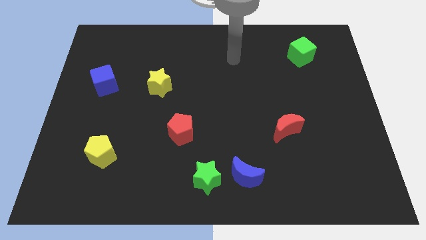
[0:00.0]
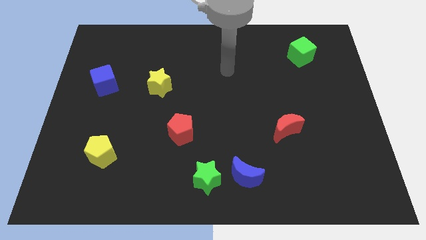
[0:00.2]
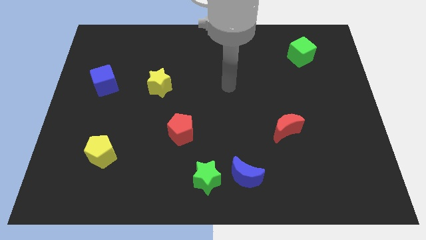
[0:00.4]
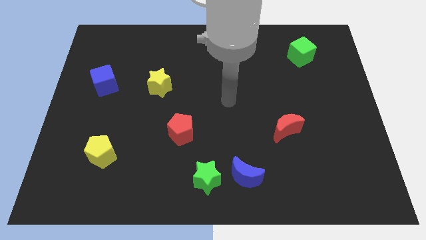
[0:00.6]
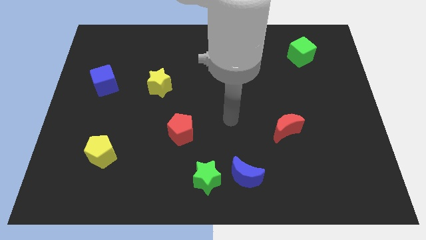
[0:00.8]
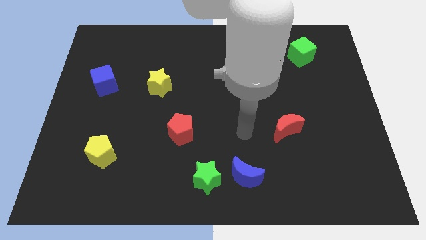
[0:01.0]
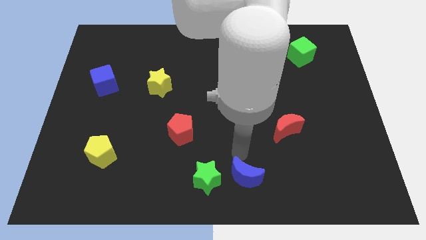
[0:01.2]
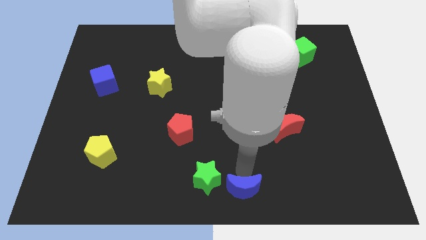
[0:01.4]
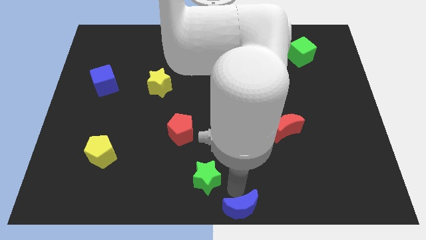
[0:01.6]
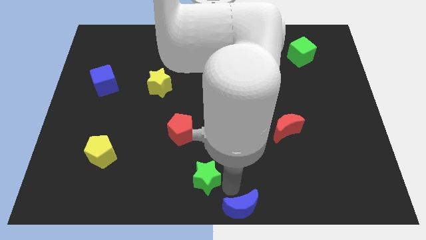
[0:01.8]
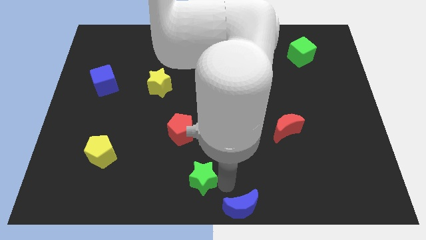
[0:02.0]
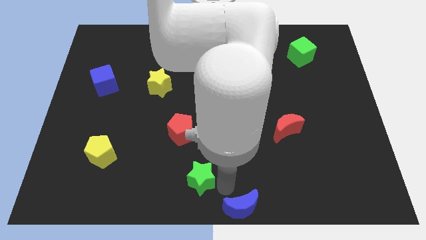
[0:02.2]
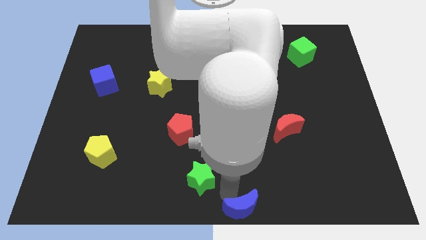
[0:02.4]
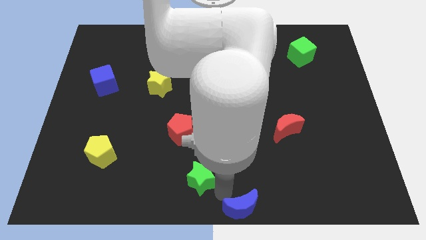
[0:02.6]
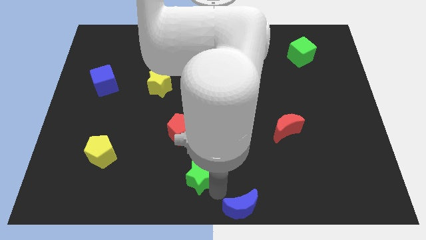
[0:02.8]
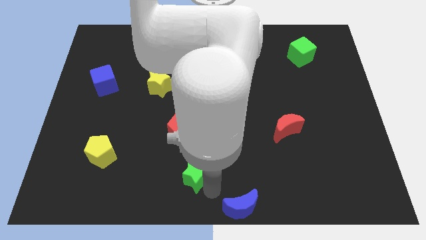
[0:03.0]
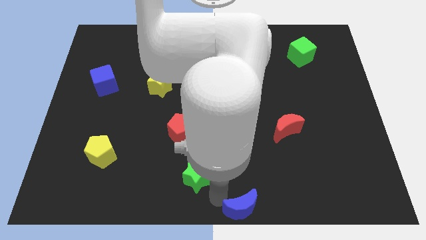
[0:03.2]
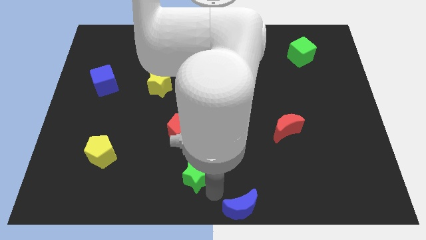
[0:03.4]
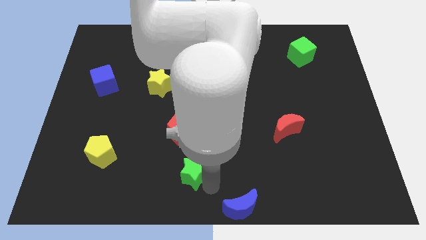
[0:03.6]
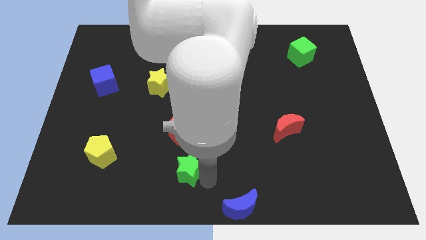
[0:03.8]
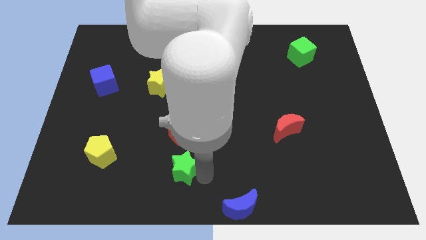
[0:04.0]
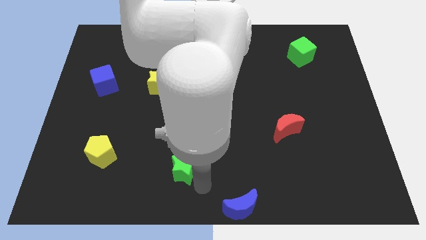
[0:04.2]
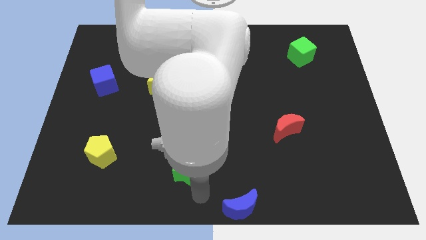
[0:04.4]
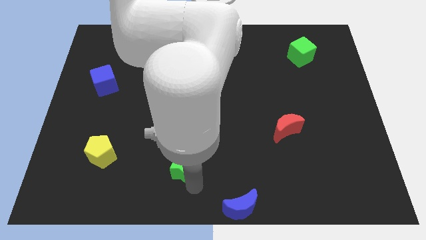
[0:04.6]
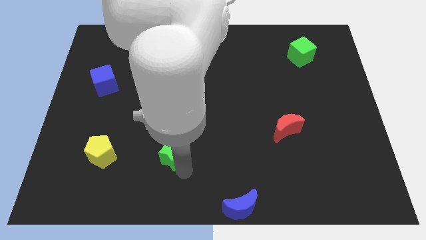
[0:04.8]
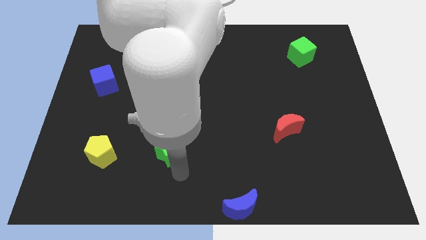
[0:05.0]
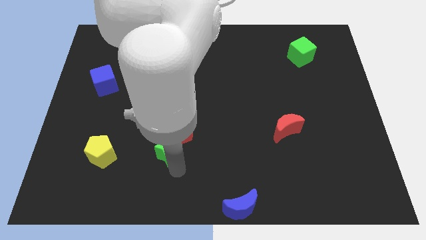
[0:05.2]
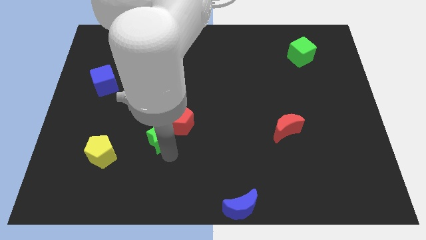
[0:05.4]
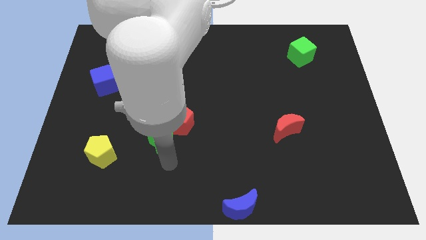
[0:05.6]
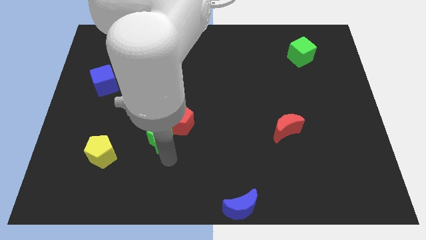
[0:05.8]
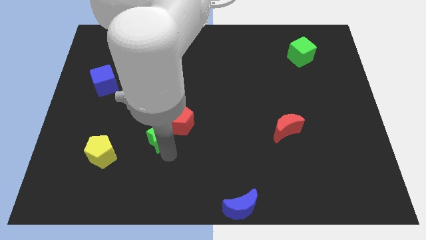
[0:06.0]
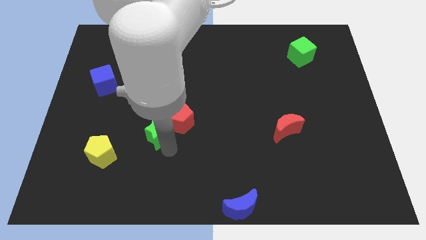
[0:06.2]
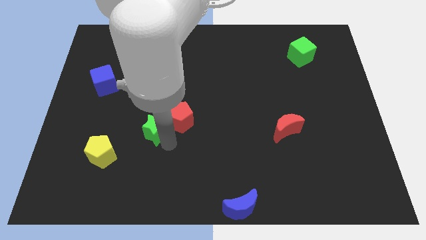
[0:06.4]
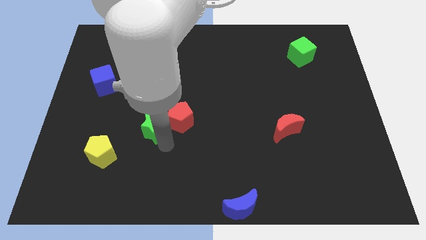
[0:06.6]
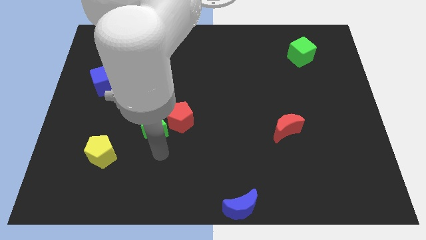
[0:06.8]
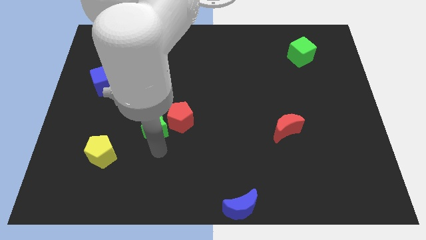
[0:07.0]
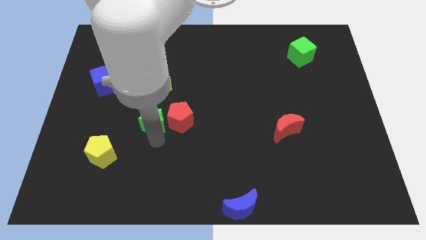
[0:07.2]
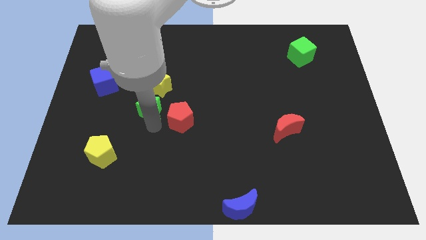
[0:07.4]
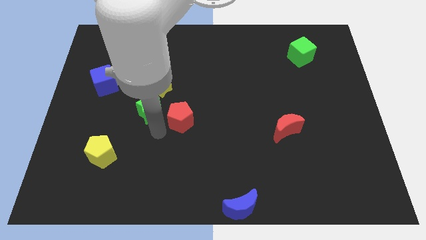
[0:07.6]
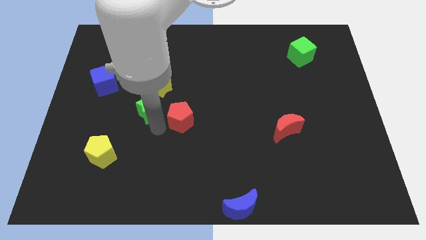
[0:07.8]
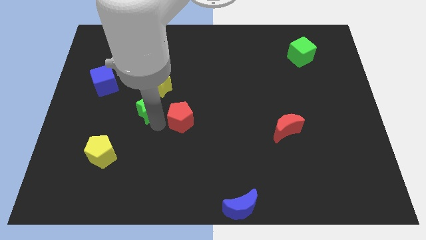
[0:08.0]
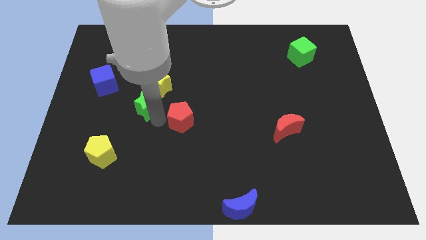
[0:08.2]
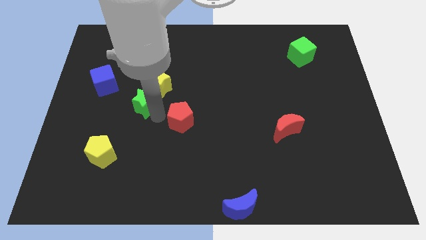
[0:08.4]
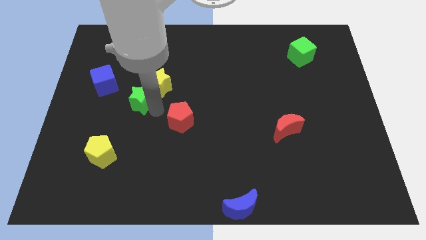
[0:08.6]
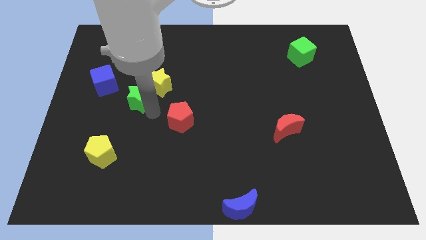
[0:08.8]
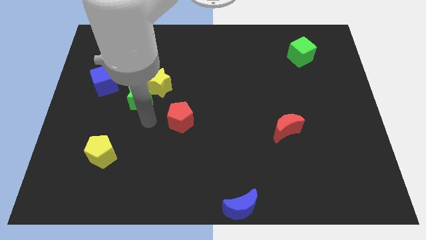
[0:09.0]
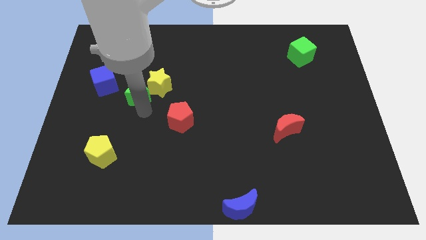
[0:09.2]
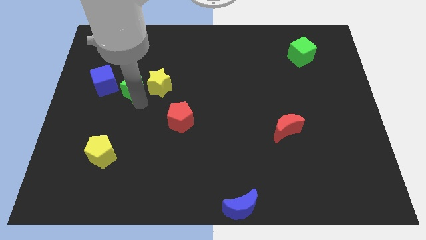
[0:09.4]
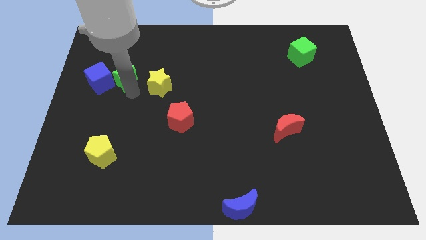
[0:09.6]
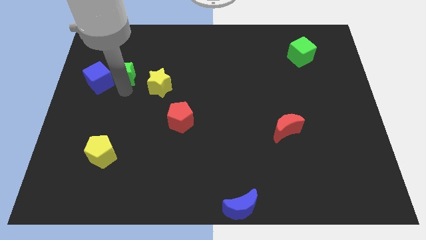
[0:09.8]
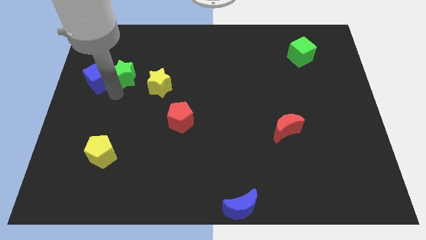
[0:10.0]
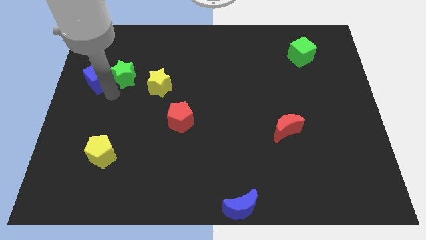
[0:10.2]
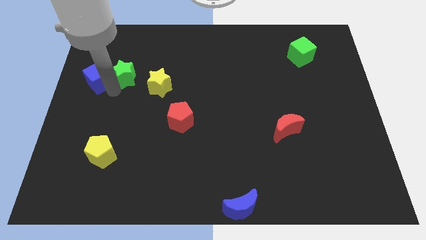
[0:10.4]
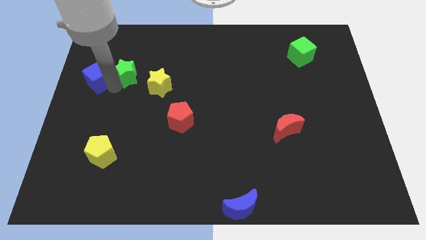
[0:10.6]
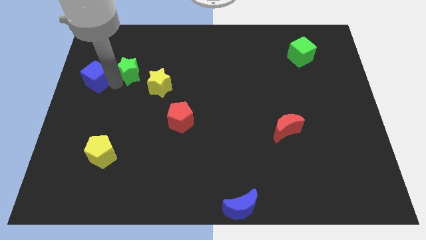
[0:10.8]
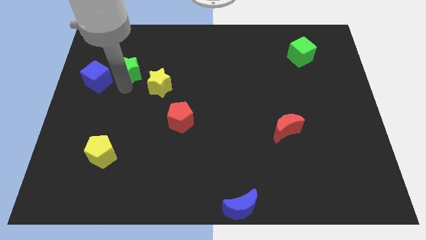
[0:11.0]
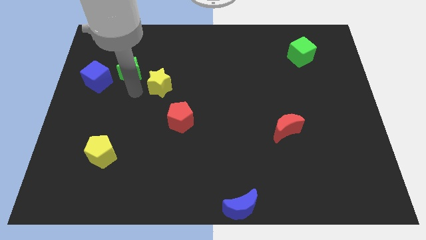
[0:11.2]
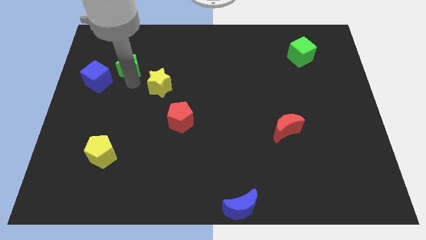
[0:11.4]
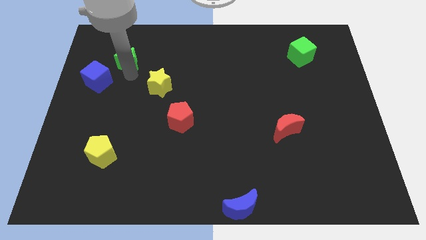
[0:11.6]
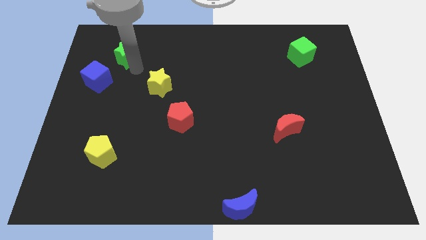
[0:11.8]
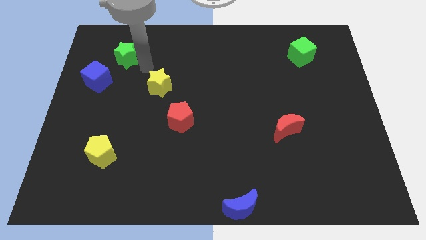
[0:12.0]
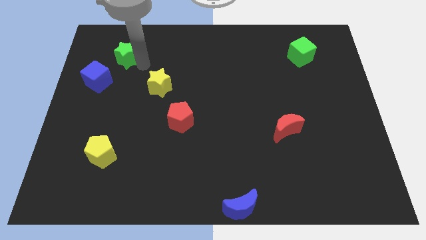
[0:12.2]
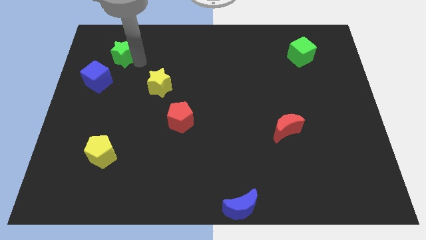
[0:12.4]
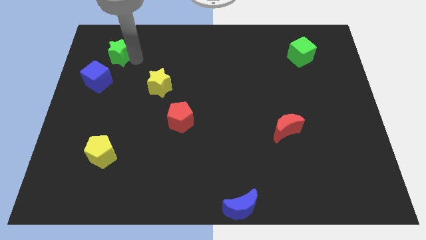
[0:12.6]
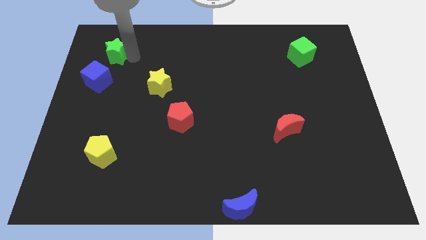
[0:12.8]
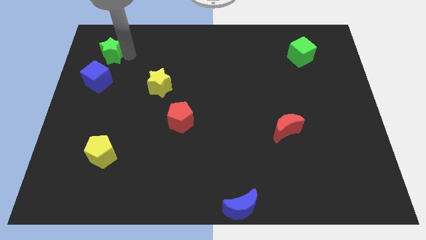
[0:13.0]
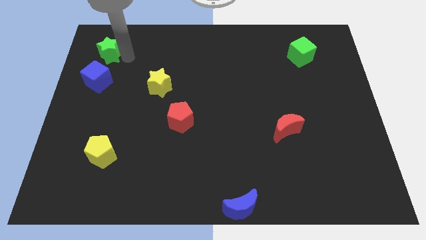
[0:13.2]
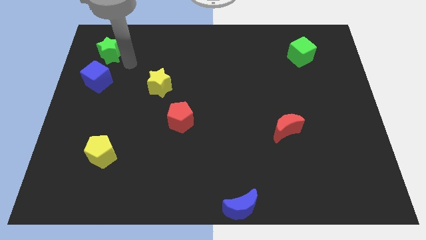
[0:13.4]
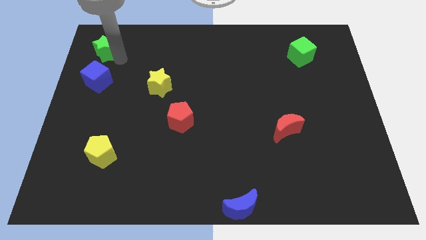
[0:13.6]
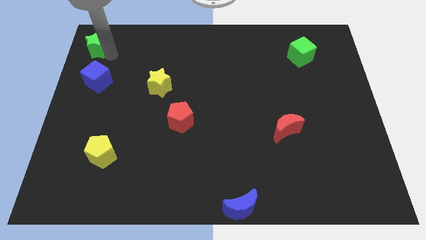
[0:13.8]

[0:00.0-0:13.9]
move the green star to the top left of the board
